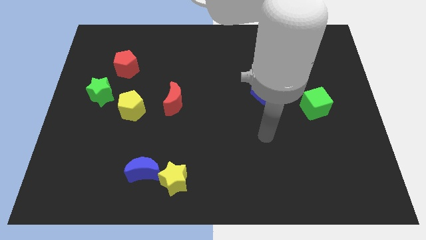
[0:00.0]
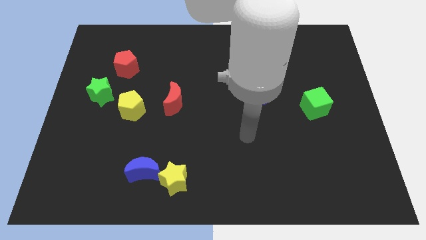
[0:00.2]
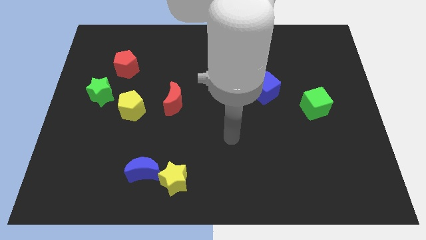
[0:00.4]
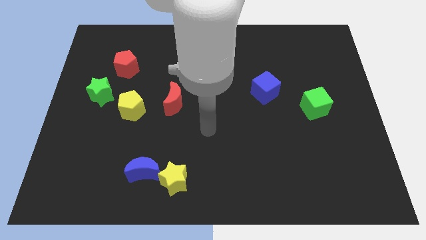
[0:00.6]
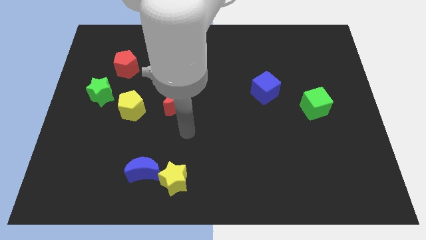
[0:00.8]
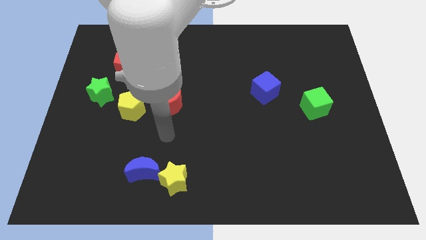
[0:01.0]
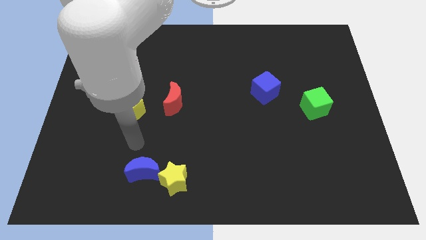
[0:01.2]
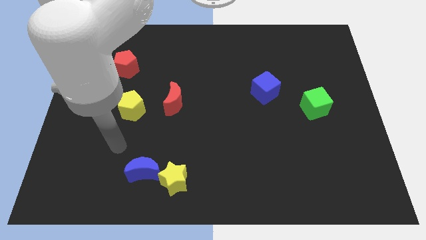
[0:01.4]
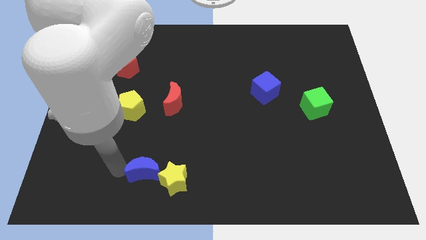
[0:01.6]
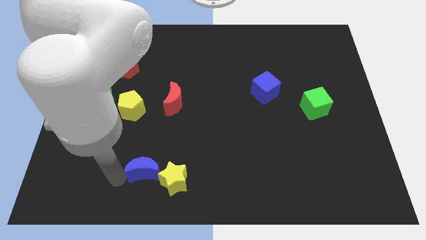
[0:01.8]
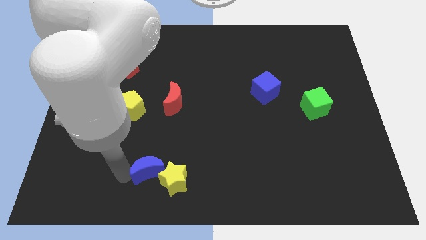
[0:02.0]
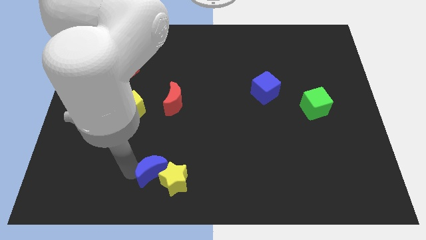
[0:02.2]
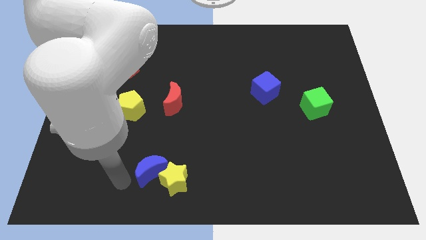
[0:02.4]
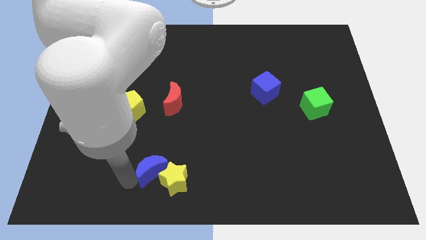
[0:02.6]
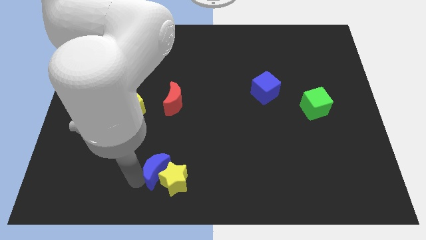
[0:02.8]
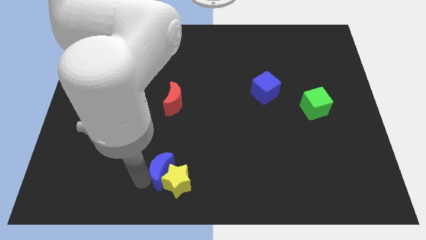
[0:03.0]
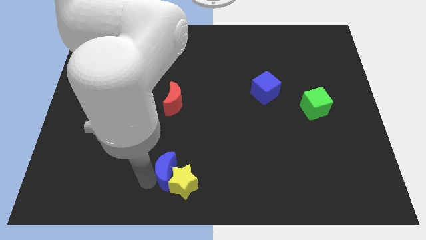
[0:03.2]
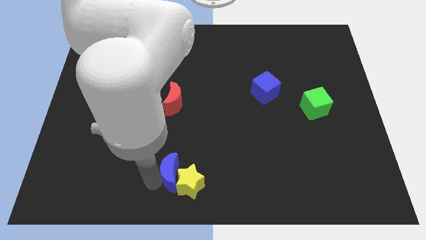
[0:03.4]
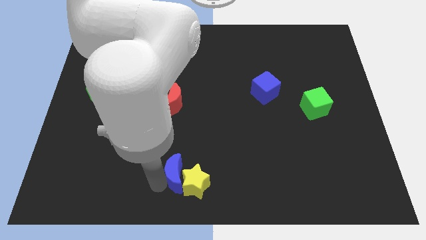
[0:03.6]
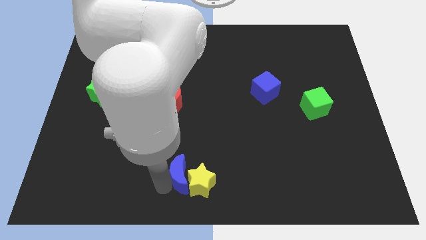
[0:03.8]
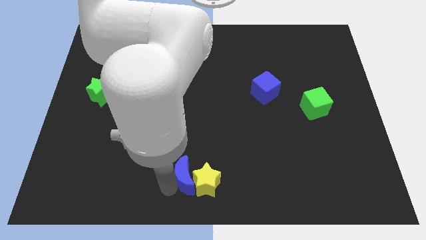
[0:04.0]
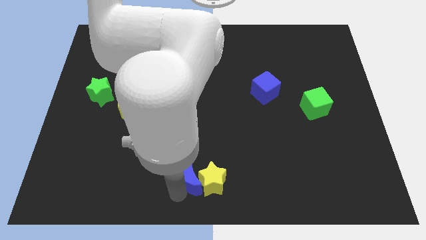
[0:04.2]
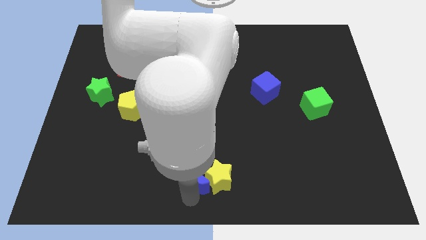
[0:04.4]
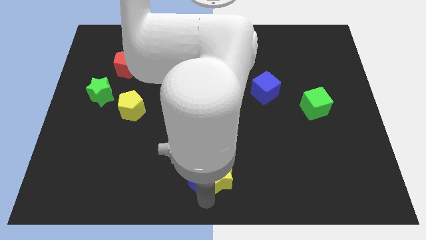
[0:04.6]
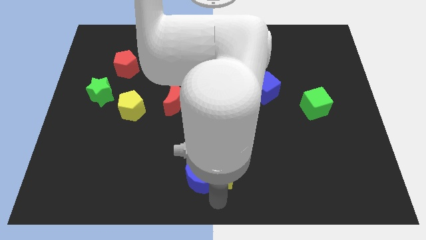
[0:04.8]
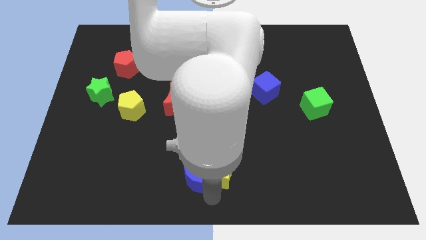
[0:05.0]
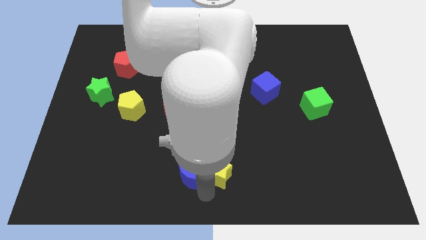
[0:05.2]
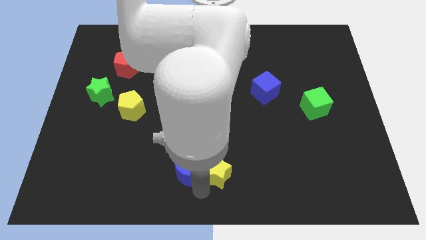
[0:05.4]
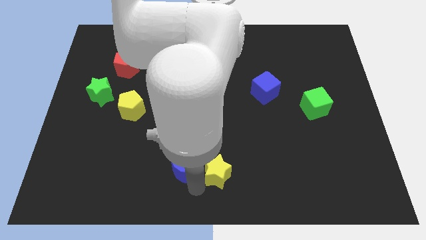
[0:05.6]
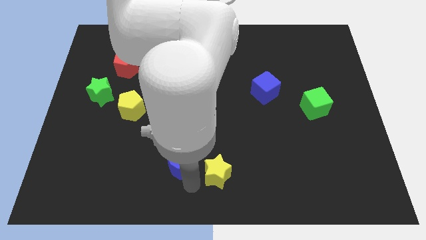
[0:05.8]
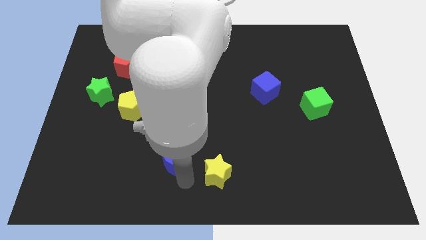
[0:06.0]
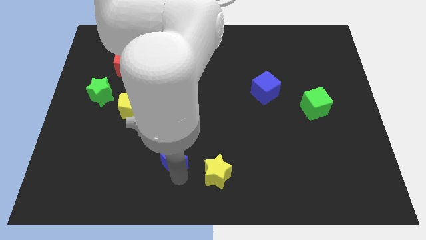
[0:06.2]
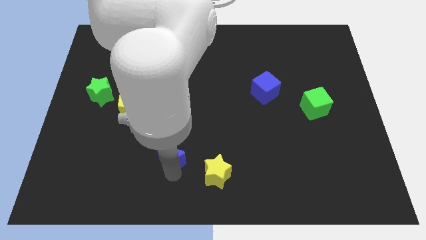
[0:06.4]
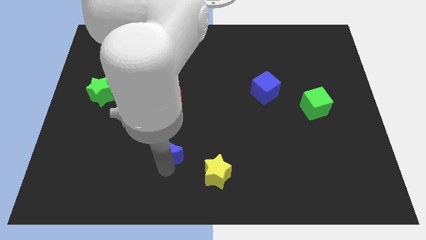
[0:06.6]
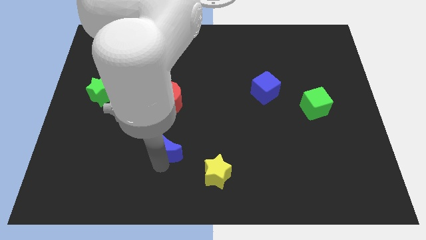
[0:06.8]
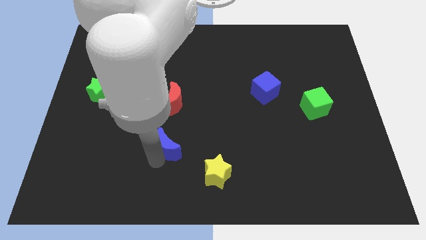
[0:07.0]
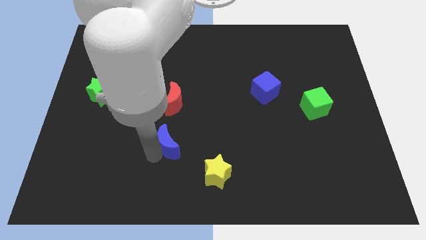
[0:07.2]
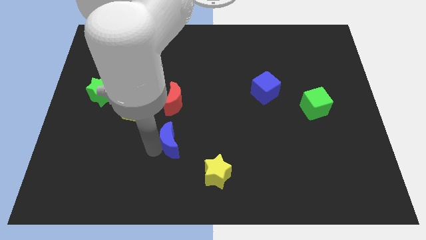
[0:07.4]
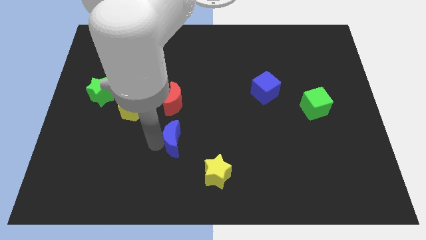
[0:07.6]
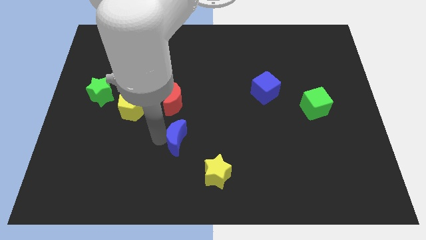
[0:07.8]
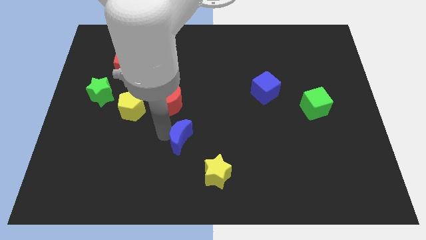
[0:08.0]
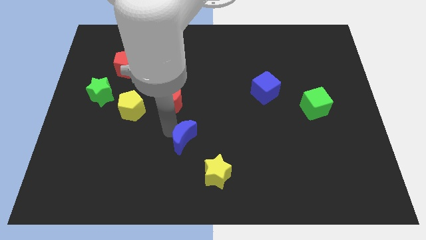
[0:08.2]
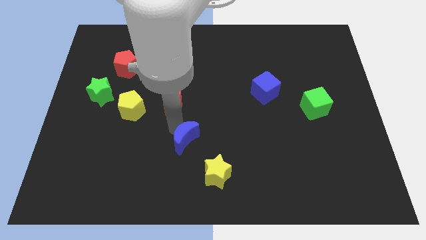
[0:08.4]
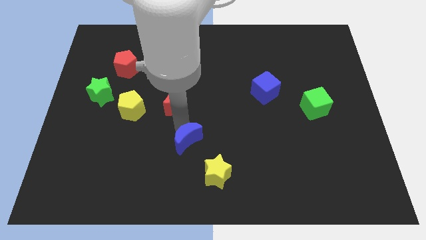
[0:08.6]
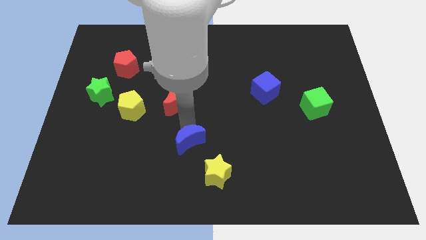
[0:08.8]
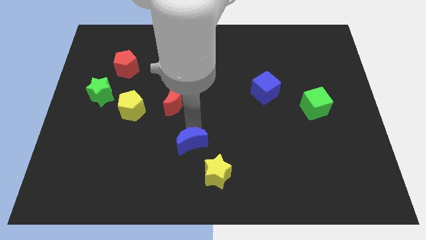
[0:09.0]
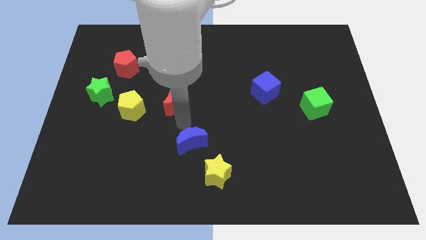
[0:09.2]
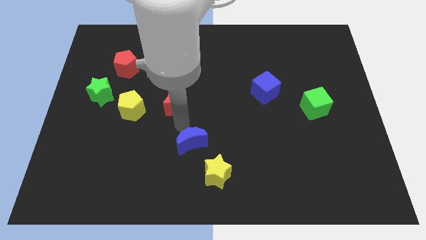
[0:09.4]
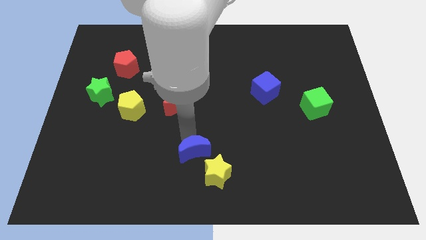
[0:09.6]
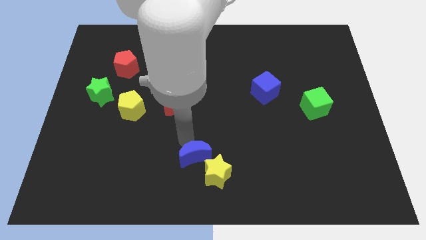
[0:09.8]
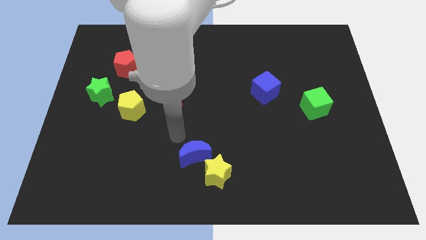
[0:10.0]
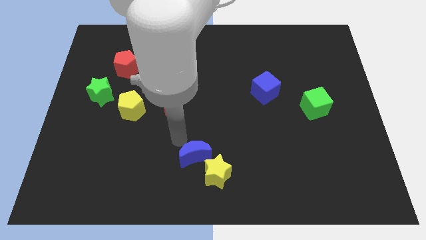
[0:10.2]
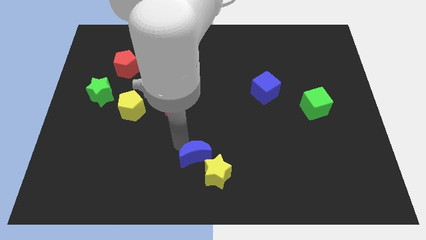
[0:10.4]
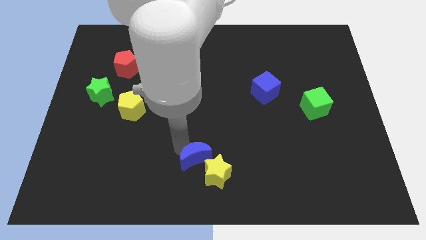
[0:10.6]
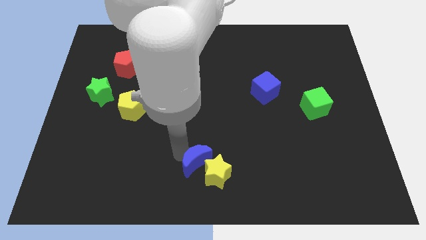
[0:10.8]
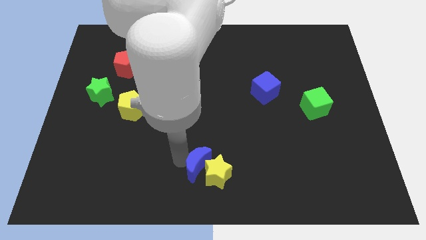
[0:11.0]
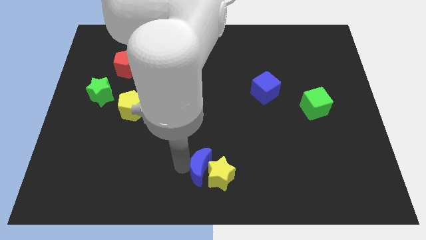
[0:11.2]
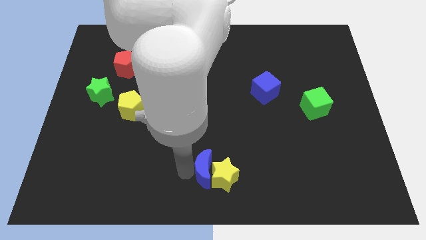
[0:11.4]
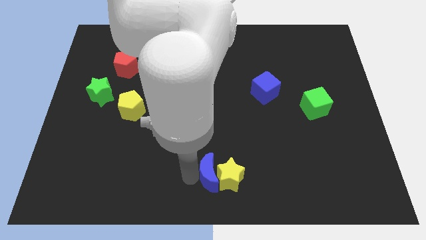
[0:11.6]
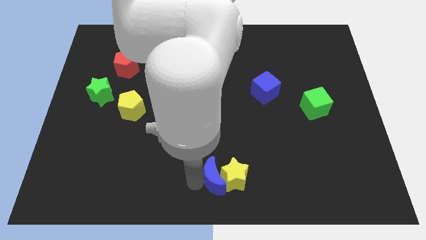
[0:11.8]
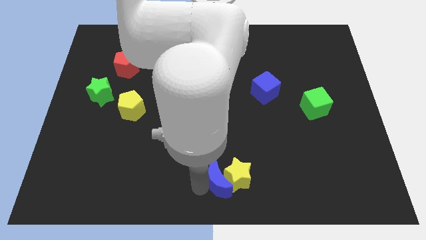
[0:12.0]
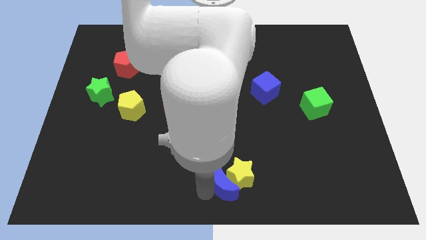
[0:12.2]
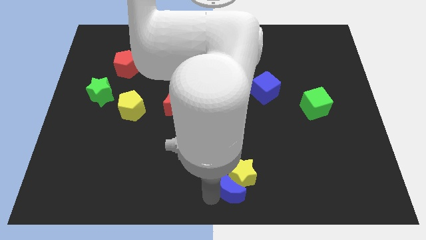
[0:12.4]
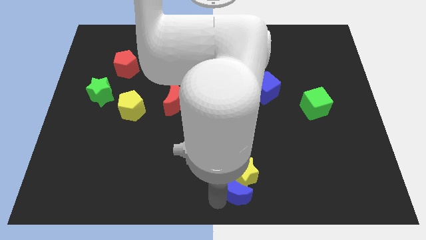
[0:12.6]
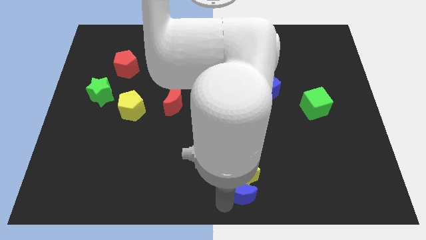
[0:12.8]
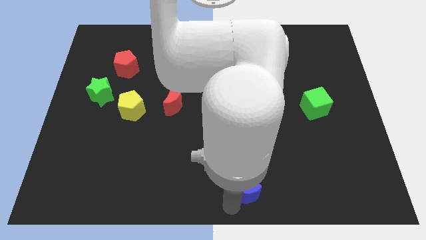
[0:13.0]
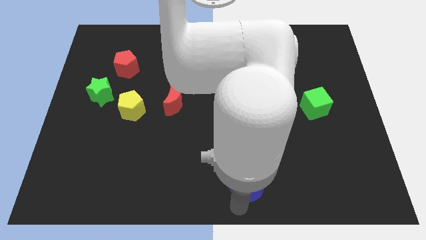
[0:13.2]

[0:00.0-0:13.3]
push the blue moon to the right

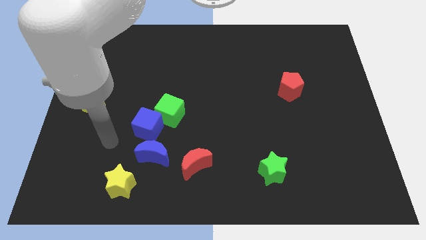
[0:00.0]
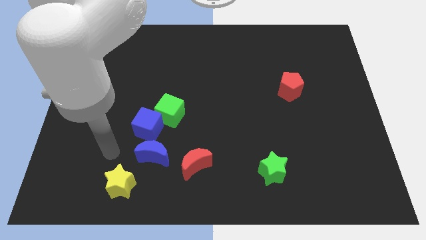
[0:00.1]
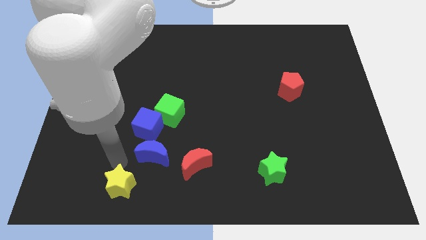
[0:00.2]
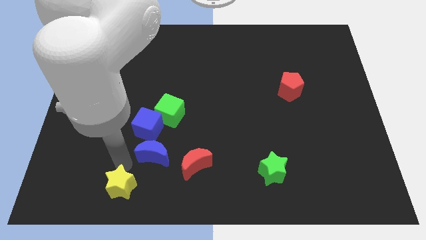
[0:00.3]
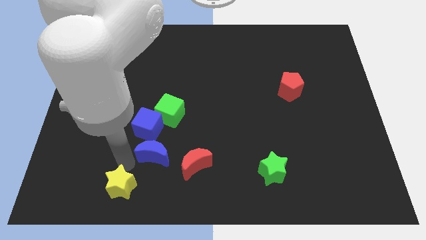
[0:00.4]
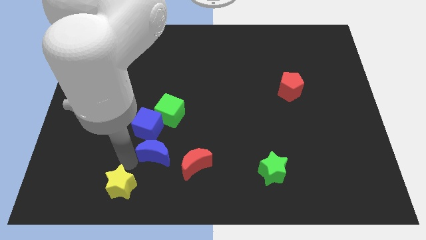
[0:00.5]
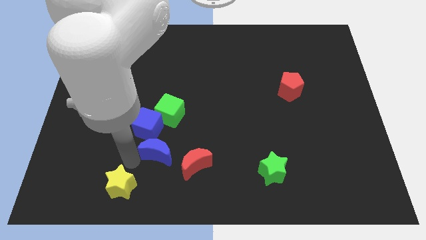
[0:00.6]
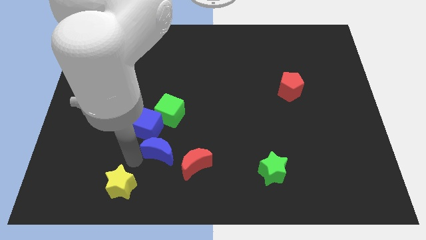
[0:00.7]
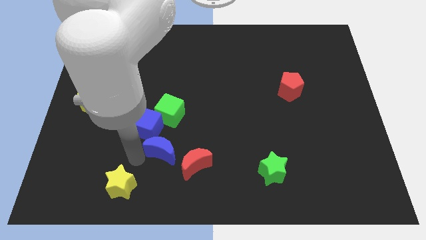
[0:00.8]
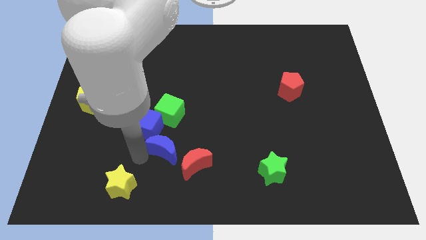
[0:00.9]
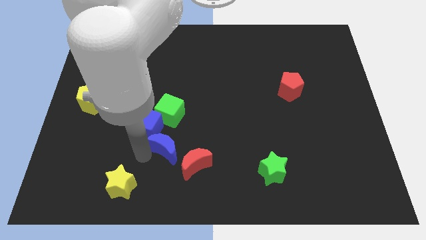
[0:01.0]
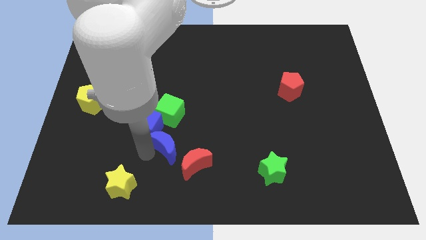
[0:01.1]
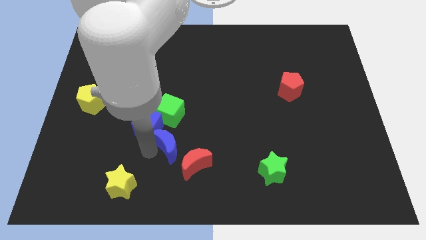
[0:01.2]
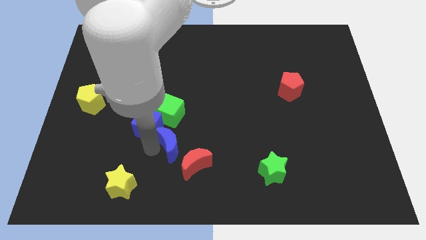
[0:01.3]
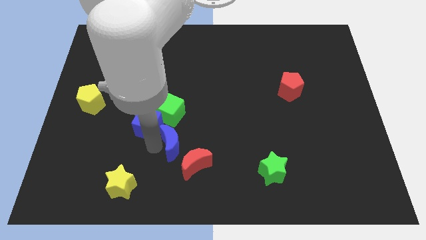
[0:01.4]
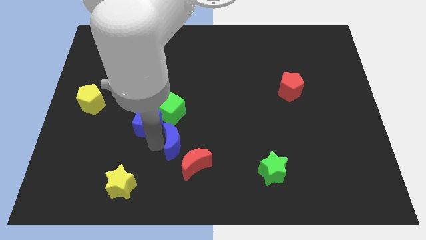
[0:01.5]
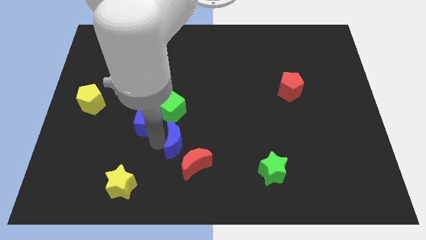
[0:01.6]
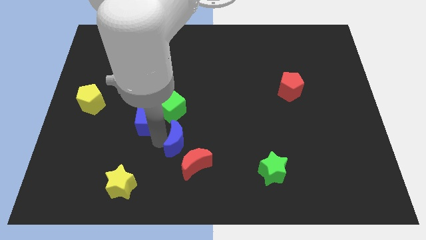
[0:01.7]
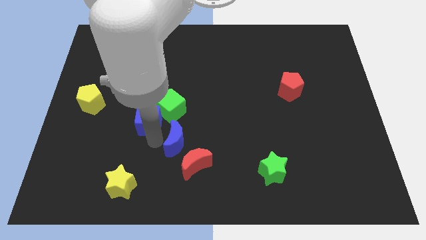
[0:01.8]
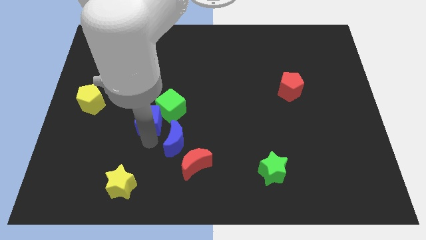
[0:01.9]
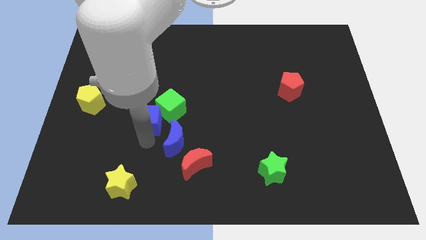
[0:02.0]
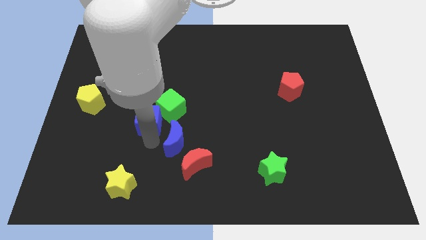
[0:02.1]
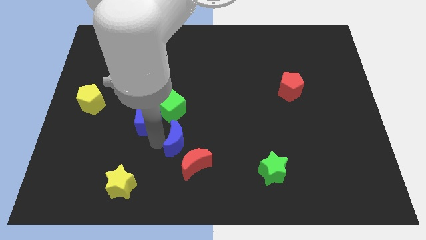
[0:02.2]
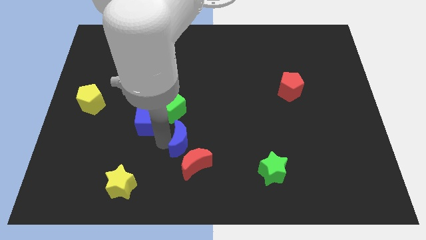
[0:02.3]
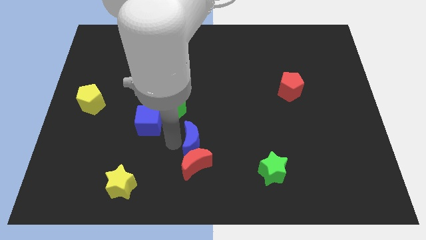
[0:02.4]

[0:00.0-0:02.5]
move the blue moon to the right a little bit
